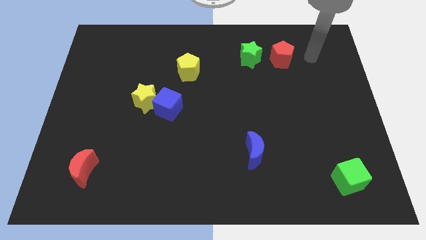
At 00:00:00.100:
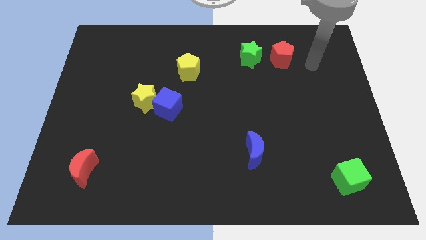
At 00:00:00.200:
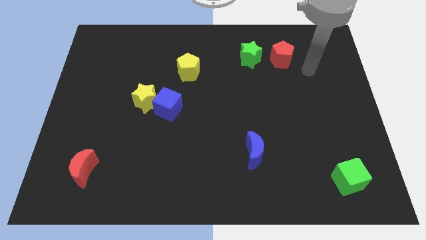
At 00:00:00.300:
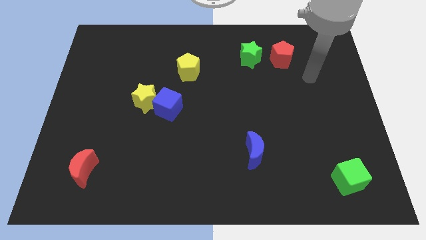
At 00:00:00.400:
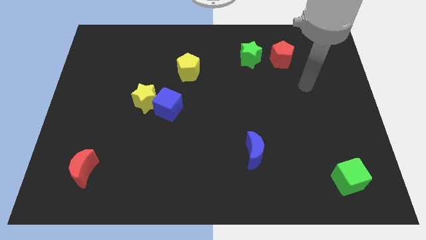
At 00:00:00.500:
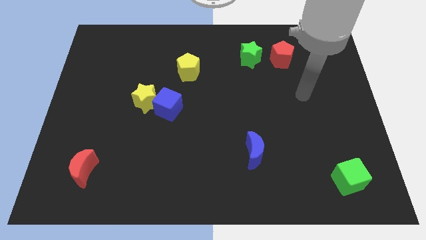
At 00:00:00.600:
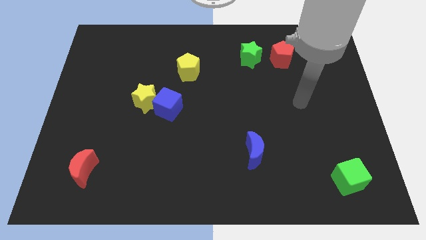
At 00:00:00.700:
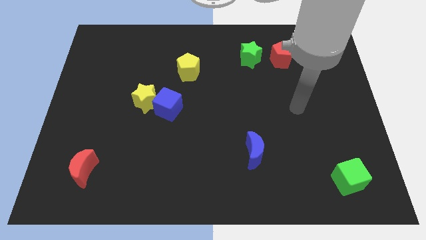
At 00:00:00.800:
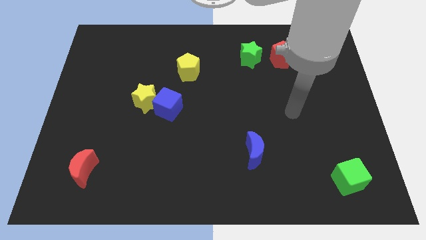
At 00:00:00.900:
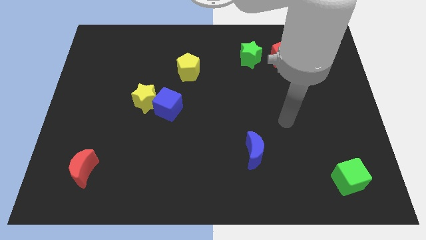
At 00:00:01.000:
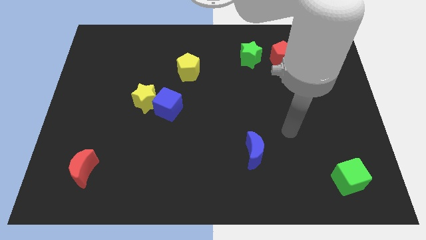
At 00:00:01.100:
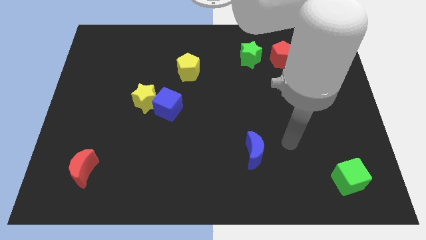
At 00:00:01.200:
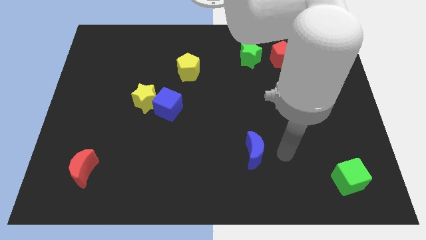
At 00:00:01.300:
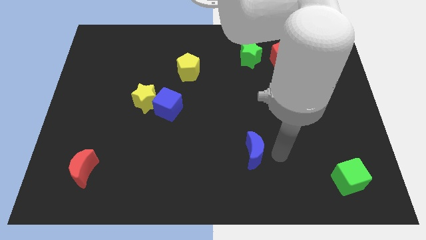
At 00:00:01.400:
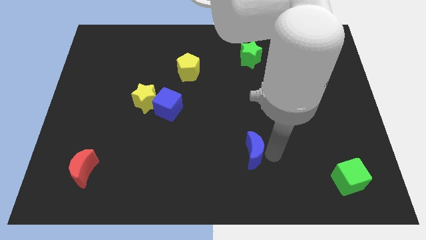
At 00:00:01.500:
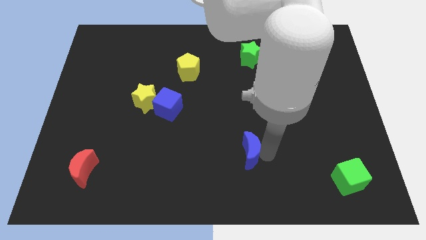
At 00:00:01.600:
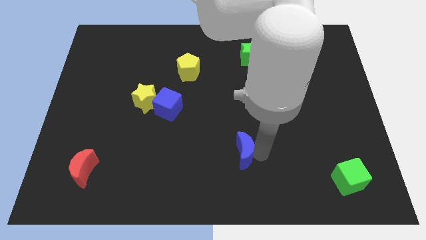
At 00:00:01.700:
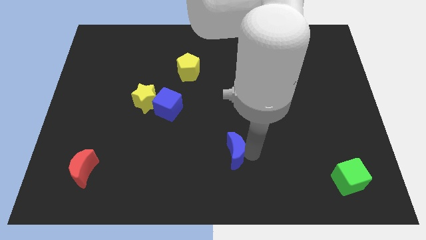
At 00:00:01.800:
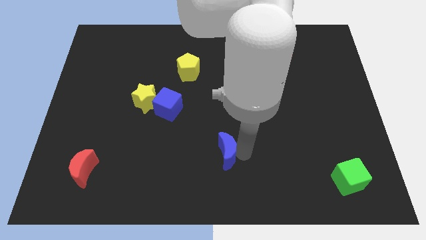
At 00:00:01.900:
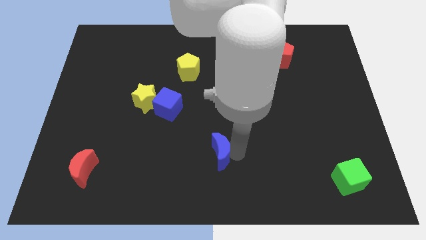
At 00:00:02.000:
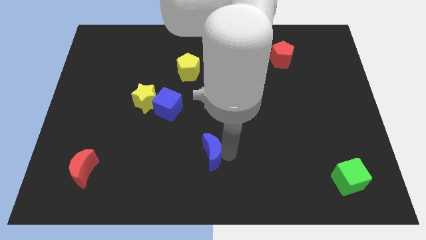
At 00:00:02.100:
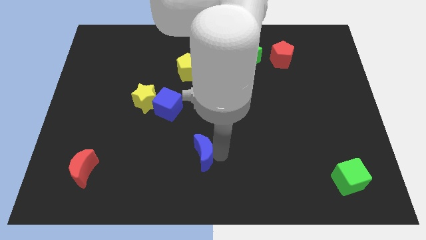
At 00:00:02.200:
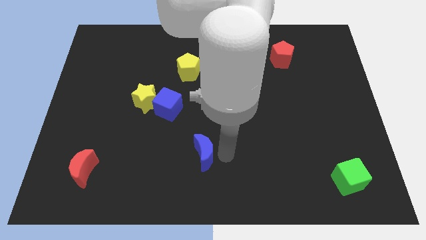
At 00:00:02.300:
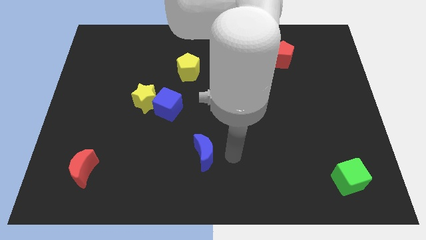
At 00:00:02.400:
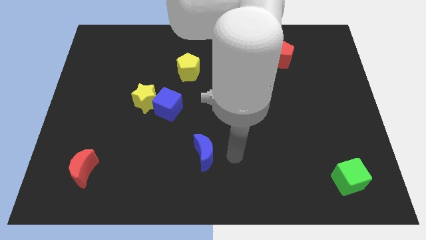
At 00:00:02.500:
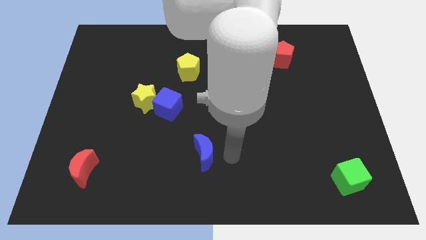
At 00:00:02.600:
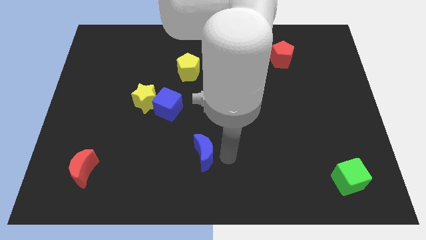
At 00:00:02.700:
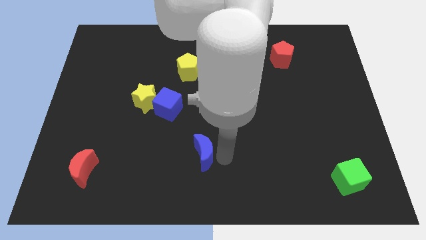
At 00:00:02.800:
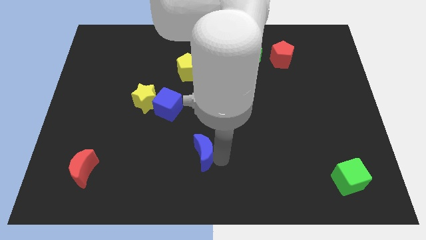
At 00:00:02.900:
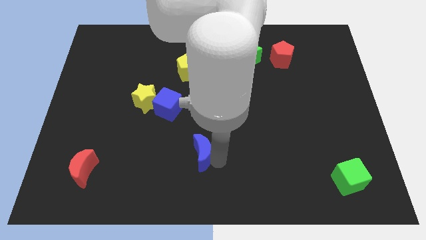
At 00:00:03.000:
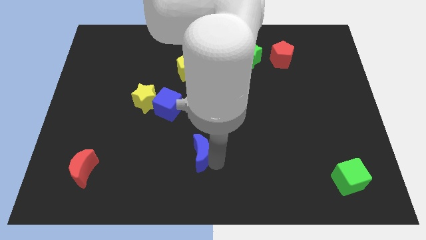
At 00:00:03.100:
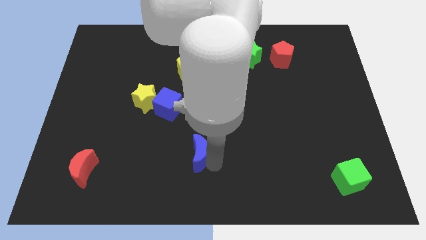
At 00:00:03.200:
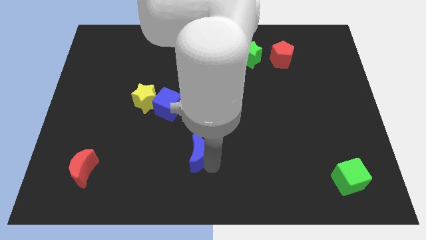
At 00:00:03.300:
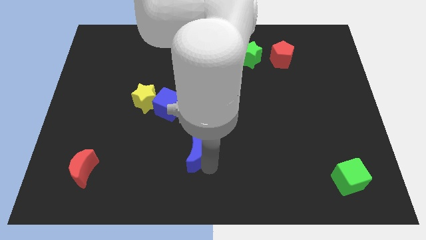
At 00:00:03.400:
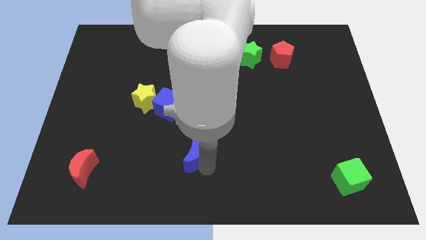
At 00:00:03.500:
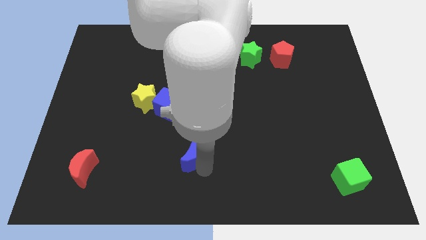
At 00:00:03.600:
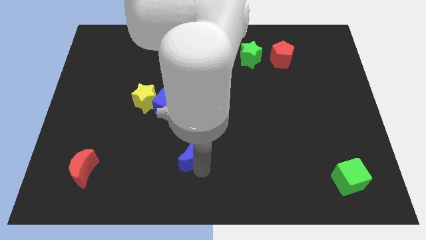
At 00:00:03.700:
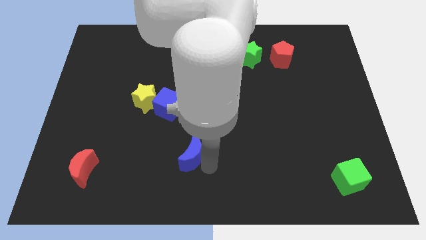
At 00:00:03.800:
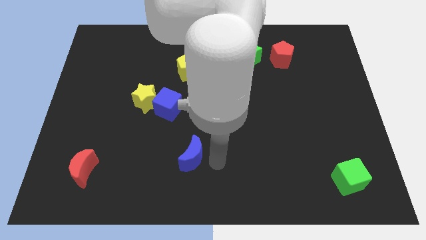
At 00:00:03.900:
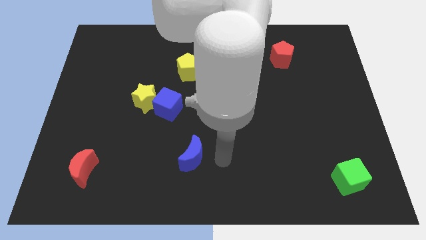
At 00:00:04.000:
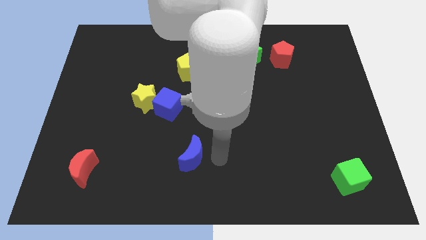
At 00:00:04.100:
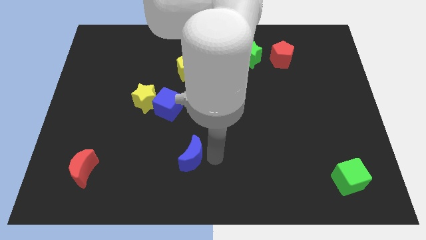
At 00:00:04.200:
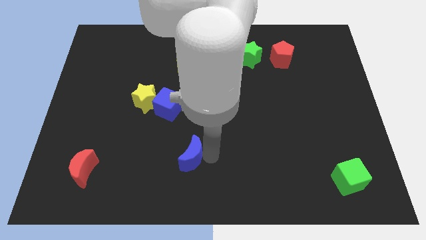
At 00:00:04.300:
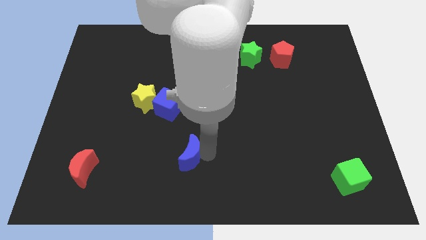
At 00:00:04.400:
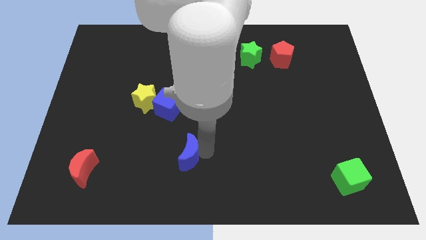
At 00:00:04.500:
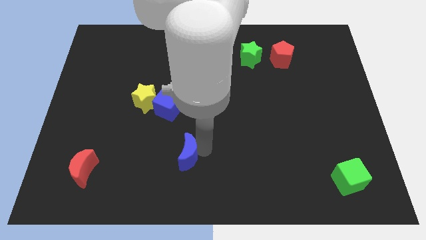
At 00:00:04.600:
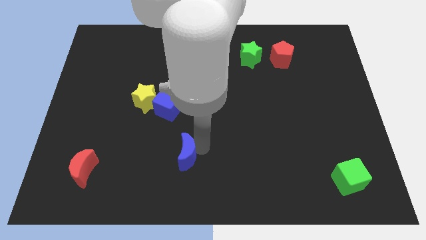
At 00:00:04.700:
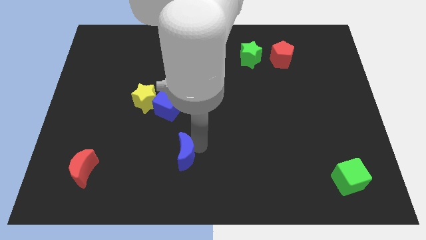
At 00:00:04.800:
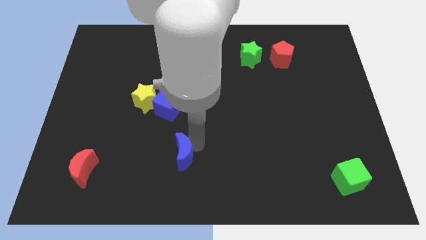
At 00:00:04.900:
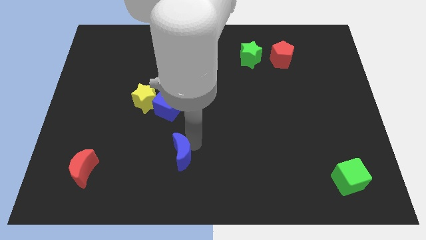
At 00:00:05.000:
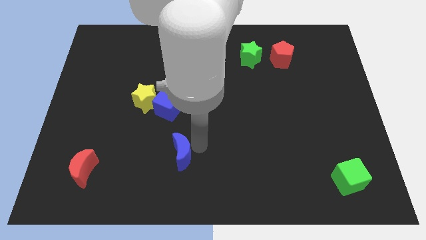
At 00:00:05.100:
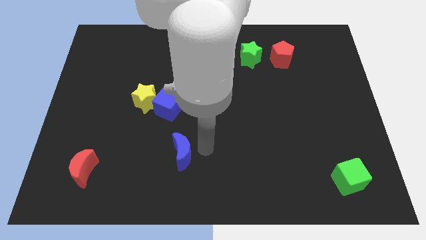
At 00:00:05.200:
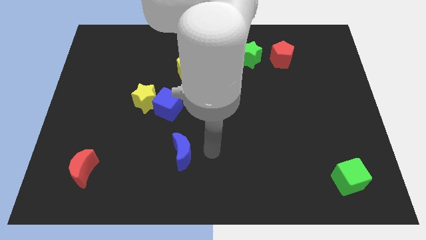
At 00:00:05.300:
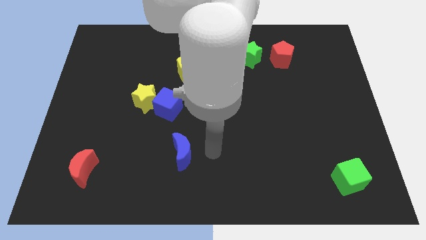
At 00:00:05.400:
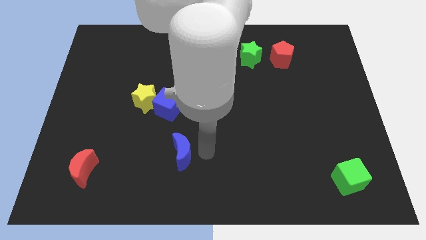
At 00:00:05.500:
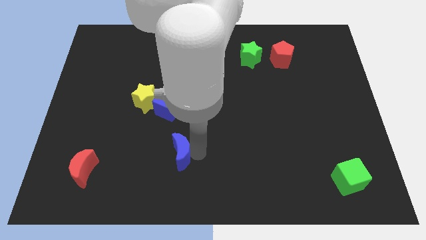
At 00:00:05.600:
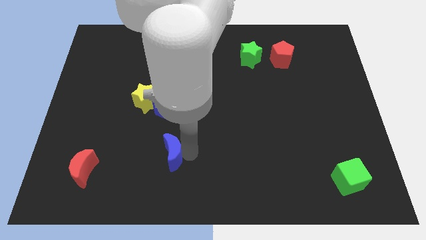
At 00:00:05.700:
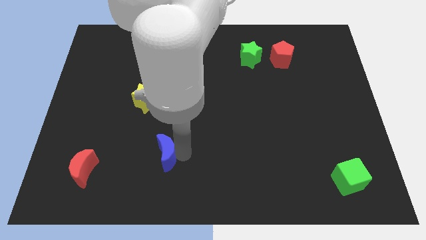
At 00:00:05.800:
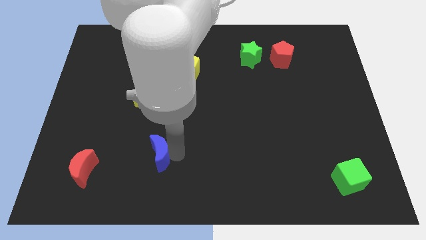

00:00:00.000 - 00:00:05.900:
move the blue moon to the left

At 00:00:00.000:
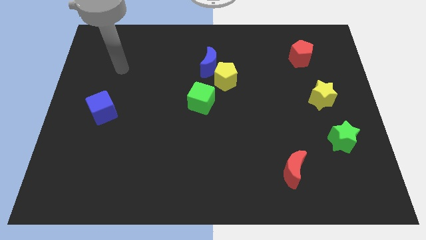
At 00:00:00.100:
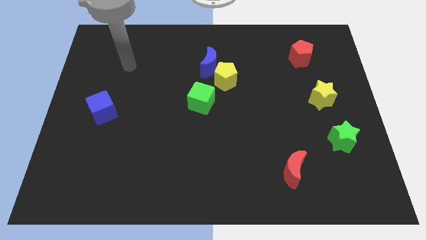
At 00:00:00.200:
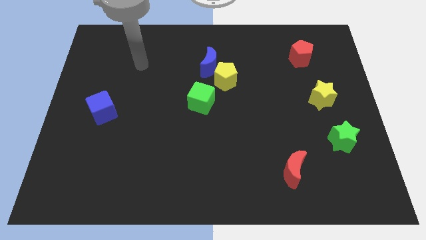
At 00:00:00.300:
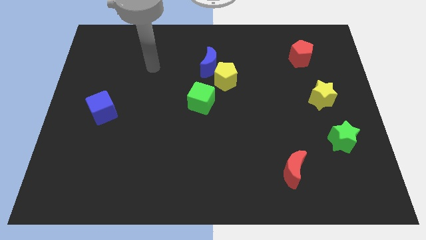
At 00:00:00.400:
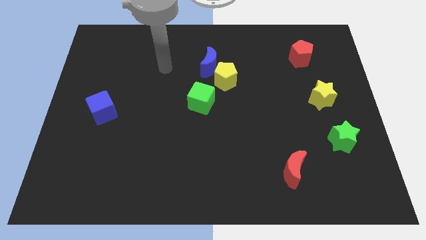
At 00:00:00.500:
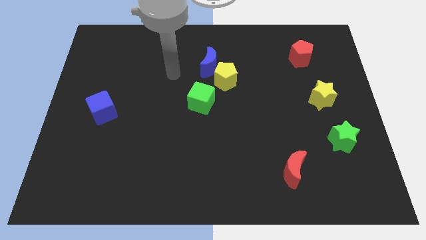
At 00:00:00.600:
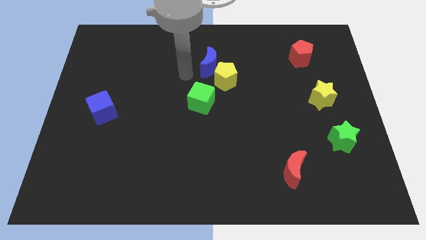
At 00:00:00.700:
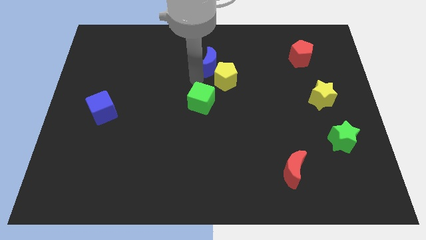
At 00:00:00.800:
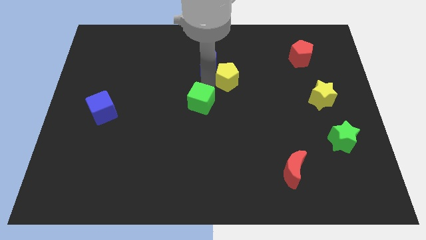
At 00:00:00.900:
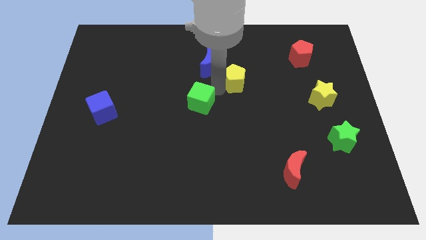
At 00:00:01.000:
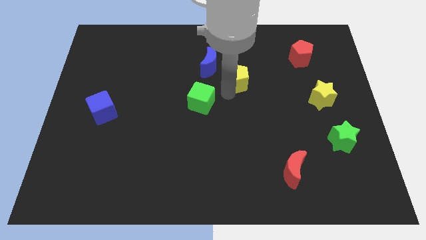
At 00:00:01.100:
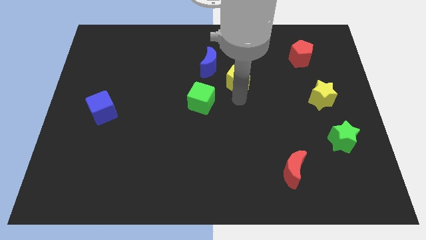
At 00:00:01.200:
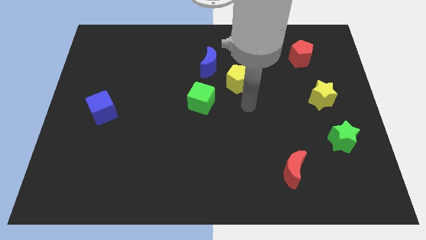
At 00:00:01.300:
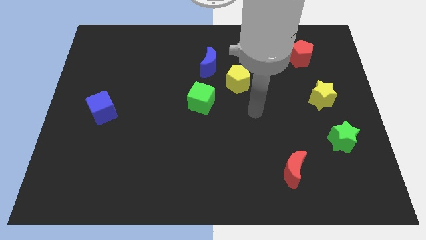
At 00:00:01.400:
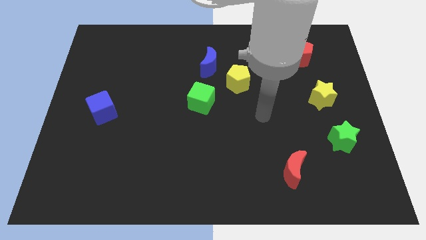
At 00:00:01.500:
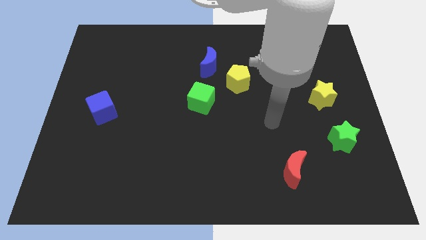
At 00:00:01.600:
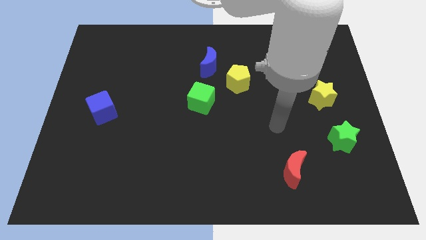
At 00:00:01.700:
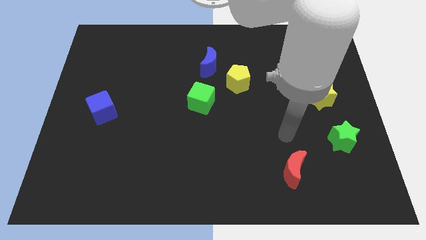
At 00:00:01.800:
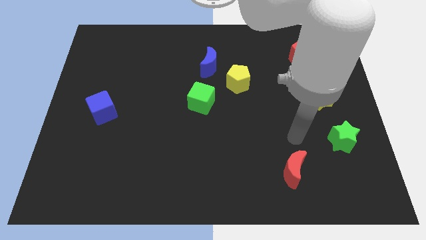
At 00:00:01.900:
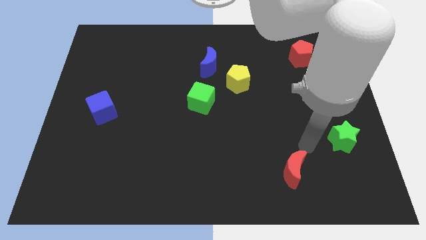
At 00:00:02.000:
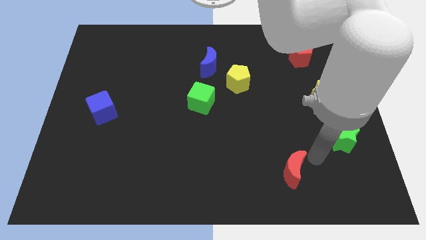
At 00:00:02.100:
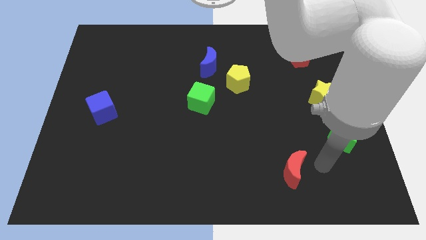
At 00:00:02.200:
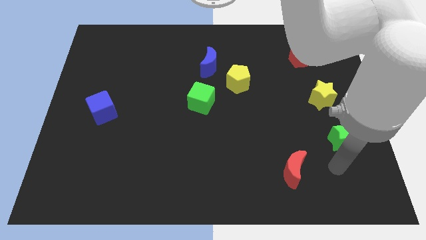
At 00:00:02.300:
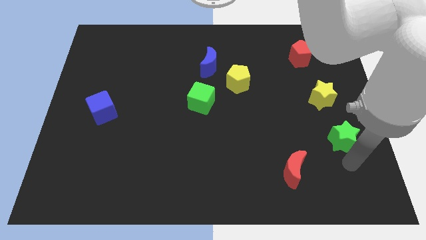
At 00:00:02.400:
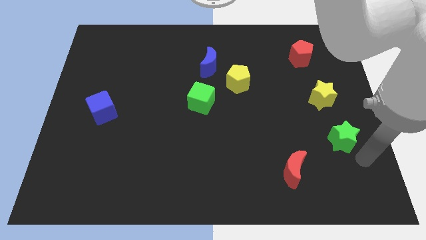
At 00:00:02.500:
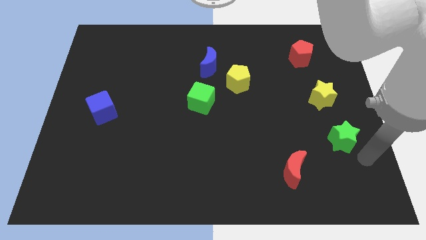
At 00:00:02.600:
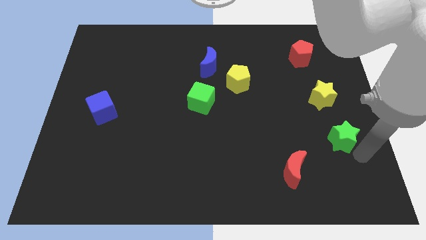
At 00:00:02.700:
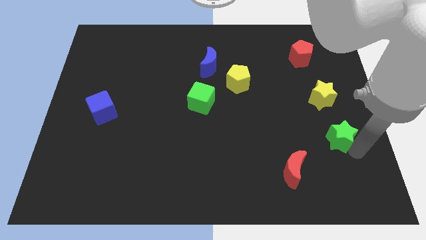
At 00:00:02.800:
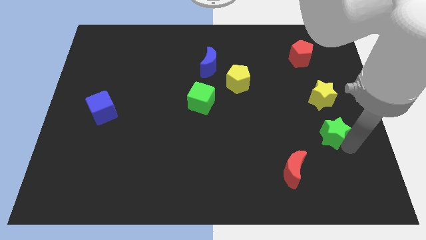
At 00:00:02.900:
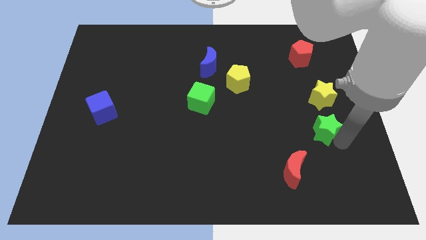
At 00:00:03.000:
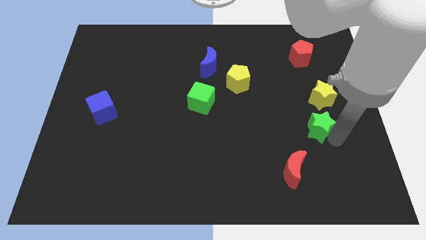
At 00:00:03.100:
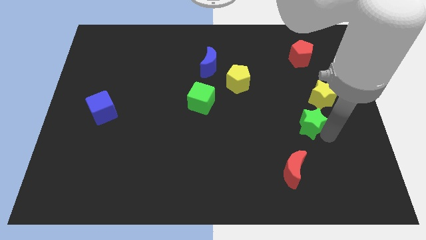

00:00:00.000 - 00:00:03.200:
push the green star a bit diagonally up and to the left
